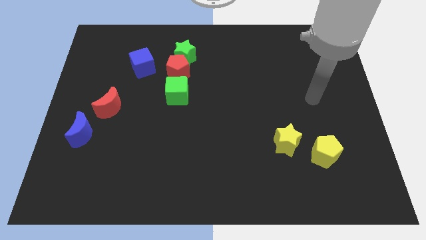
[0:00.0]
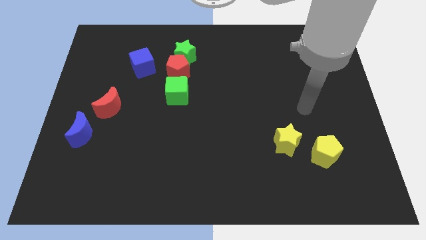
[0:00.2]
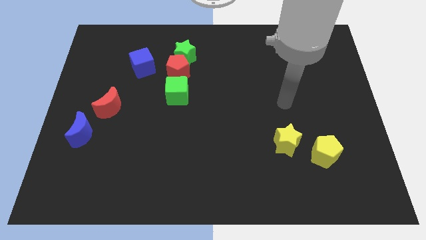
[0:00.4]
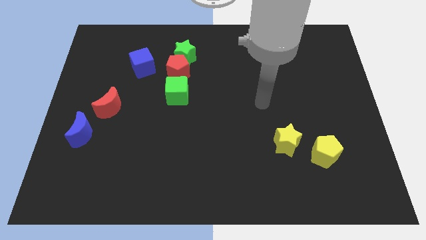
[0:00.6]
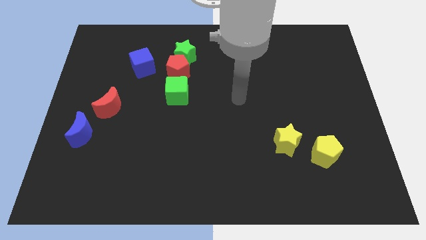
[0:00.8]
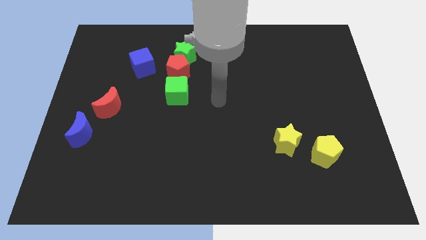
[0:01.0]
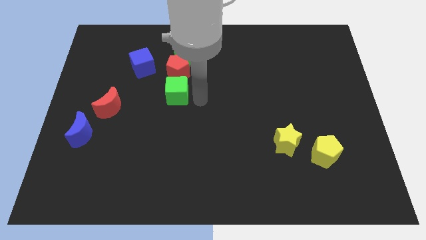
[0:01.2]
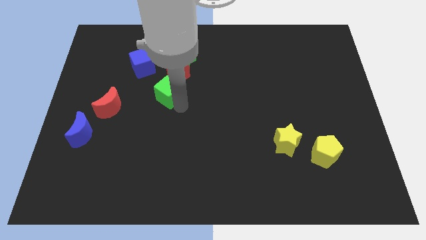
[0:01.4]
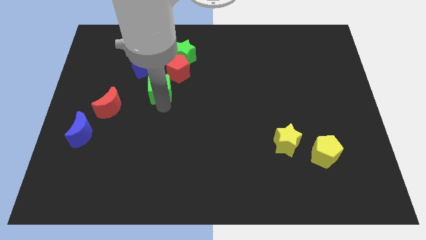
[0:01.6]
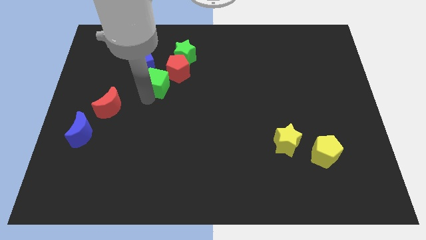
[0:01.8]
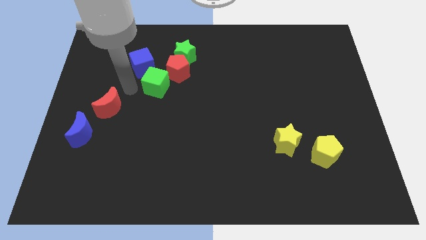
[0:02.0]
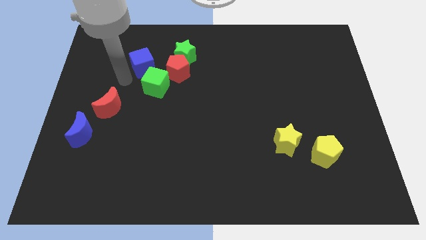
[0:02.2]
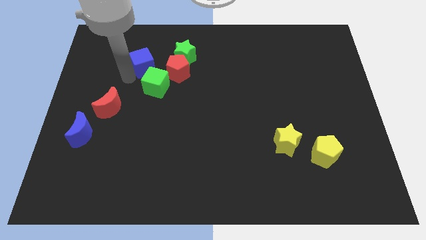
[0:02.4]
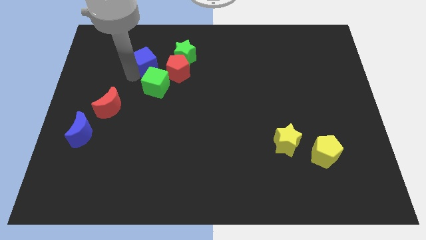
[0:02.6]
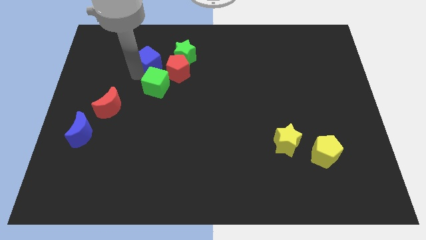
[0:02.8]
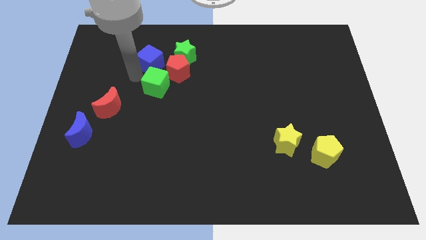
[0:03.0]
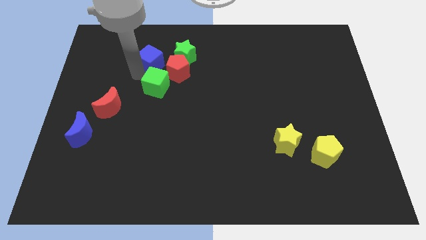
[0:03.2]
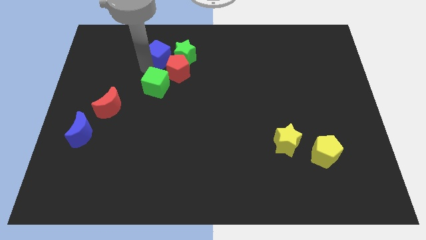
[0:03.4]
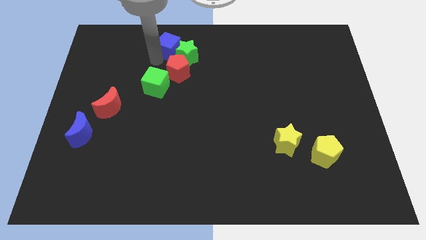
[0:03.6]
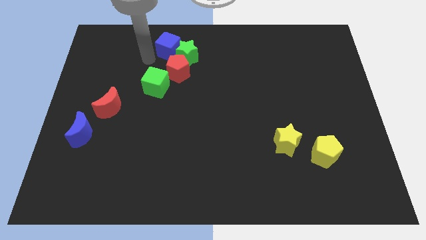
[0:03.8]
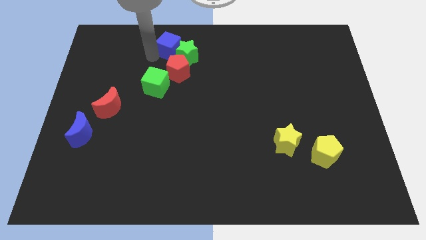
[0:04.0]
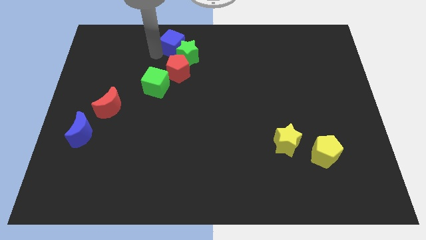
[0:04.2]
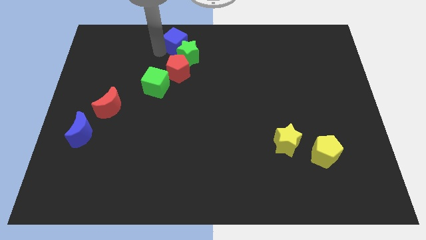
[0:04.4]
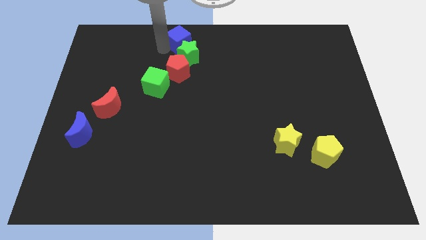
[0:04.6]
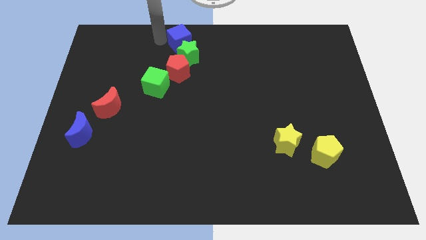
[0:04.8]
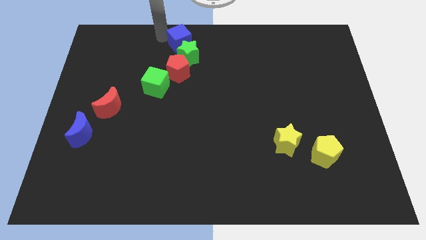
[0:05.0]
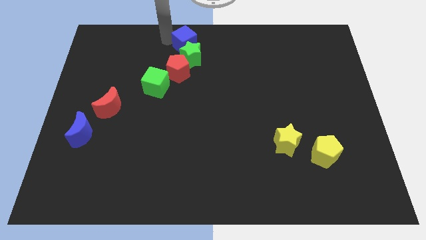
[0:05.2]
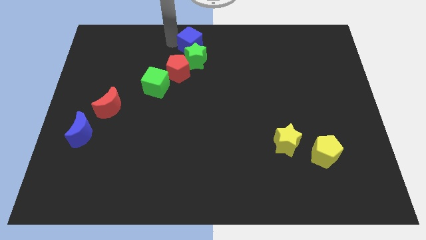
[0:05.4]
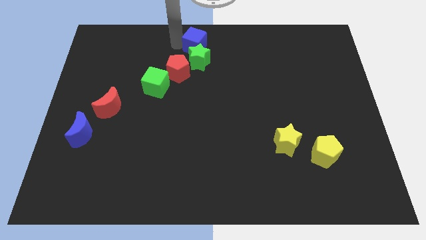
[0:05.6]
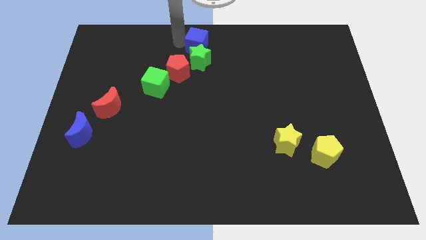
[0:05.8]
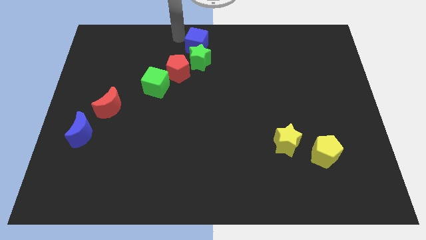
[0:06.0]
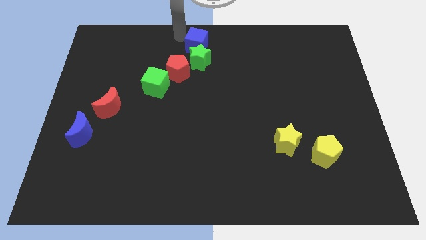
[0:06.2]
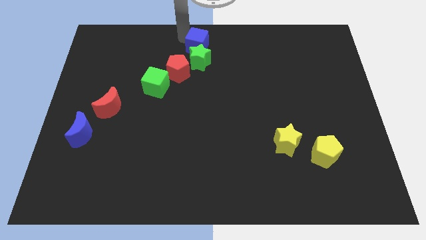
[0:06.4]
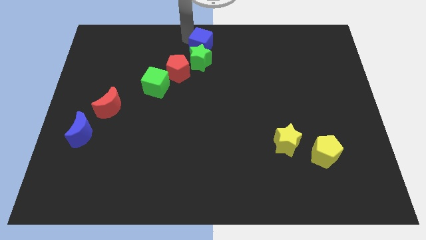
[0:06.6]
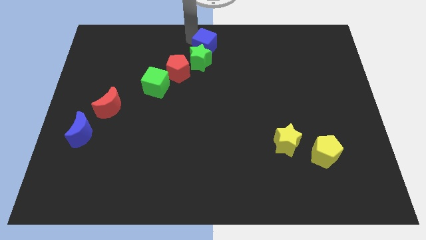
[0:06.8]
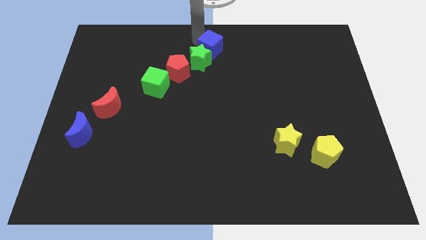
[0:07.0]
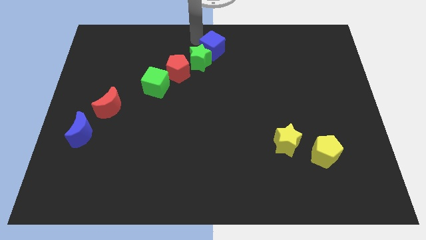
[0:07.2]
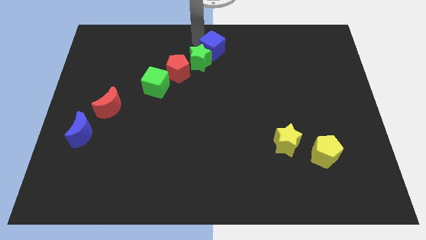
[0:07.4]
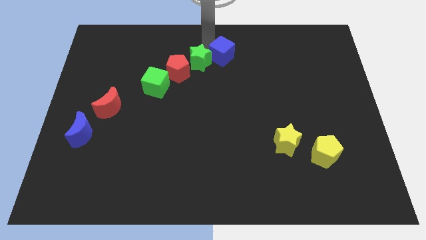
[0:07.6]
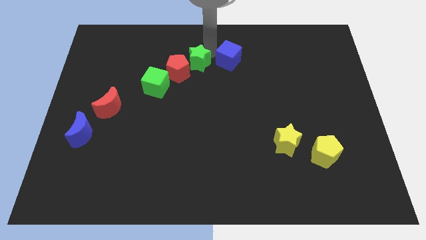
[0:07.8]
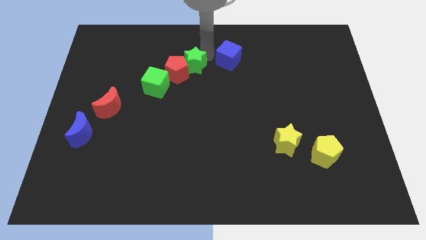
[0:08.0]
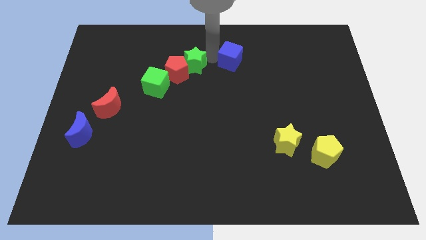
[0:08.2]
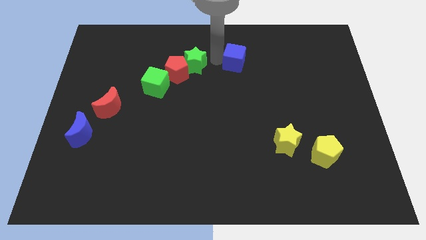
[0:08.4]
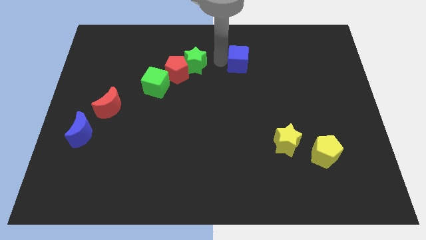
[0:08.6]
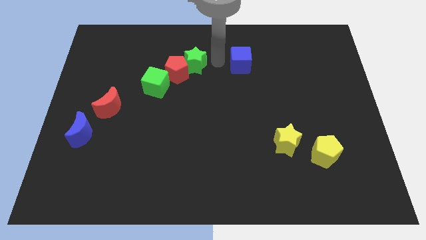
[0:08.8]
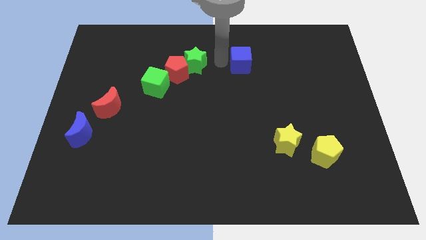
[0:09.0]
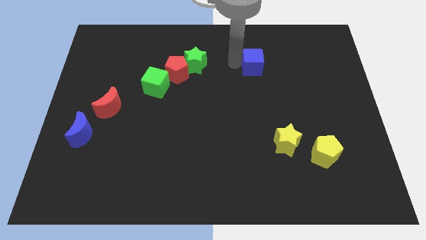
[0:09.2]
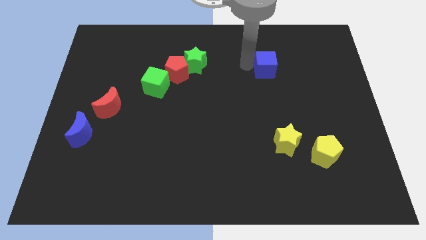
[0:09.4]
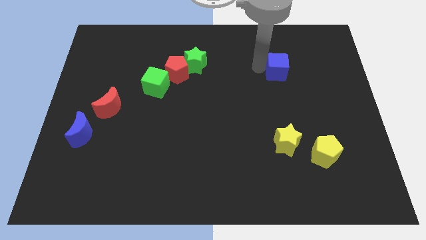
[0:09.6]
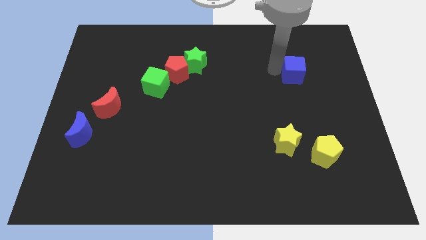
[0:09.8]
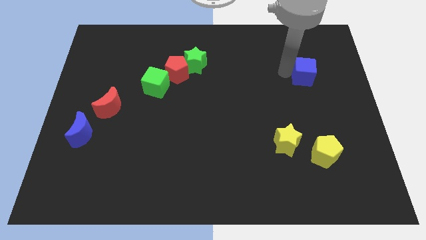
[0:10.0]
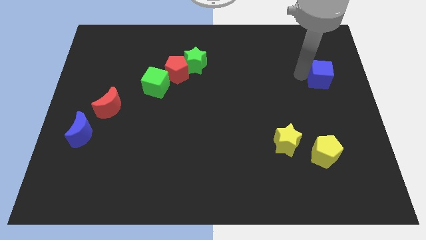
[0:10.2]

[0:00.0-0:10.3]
slide the blue cube to the right side of the board
